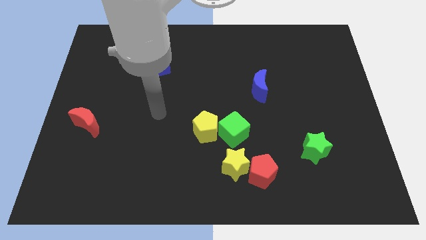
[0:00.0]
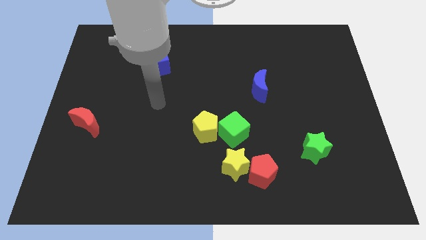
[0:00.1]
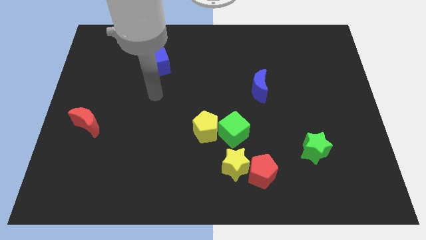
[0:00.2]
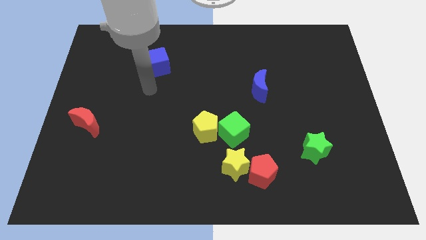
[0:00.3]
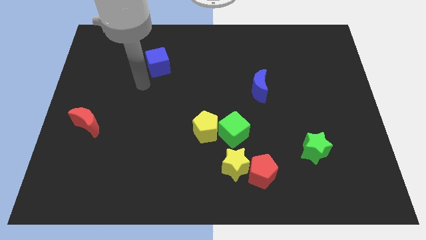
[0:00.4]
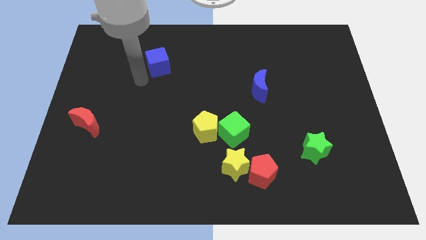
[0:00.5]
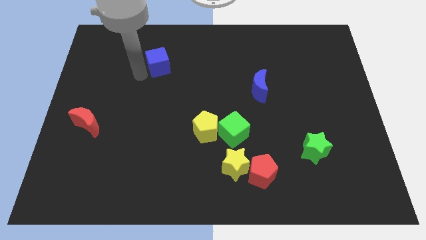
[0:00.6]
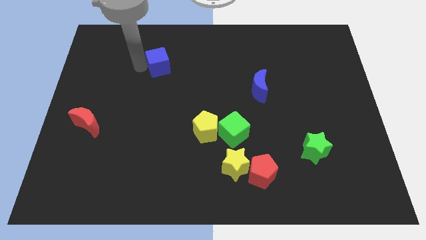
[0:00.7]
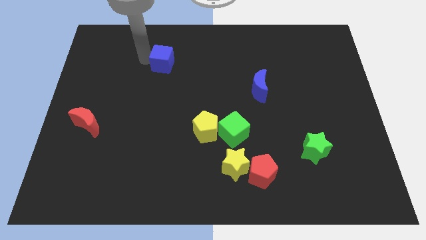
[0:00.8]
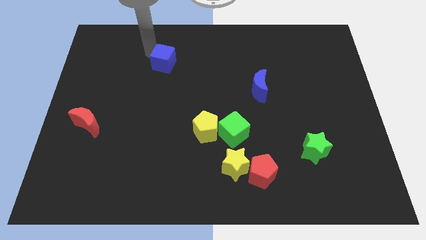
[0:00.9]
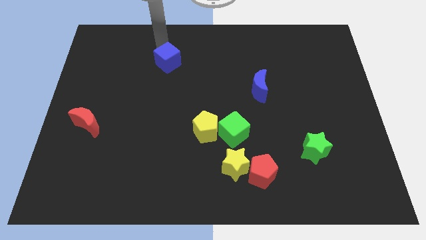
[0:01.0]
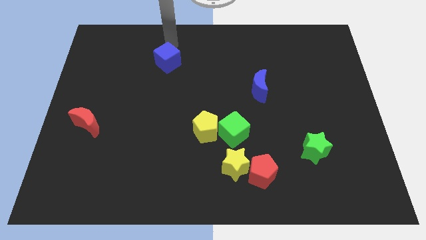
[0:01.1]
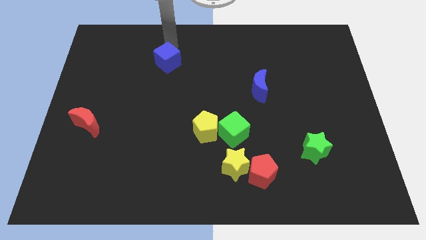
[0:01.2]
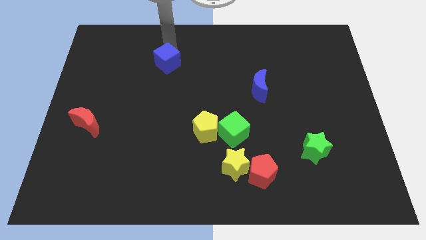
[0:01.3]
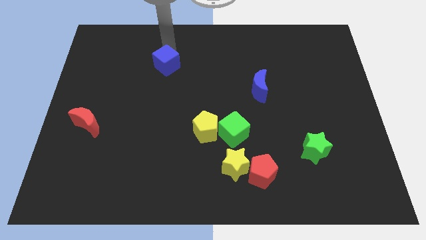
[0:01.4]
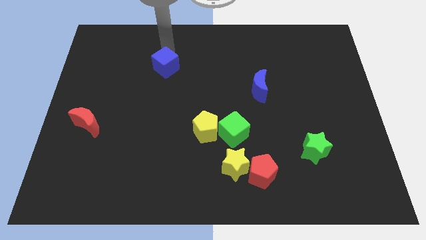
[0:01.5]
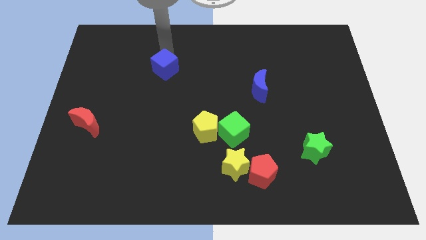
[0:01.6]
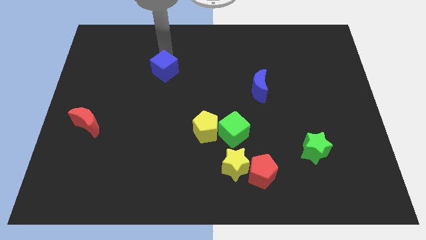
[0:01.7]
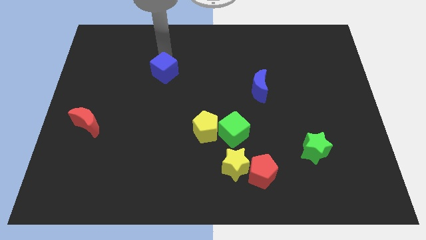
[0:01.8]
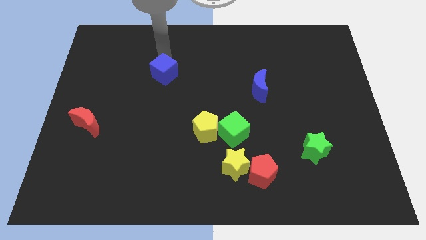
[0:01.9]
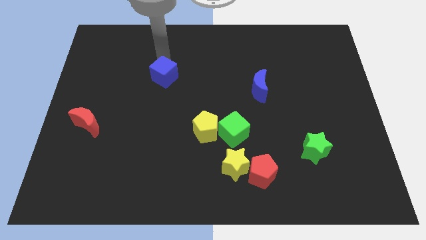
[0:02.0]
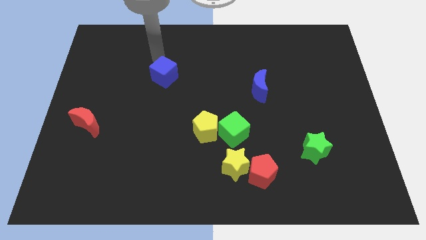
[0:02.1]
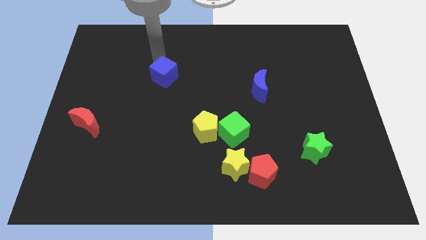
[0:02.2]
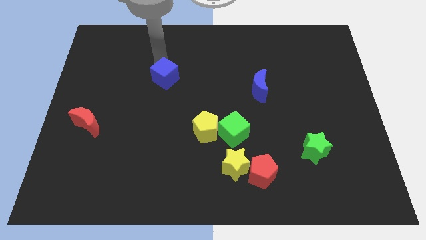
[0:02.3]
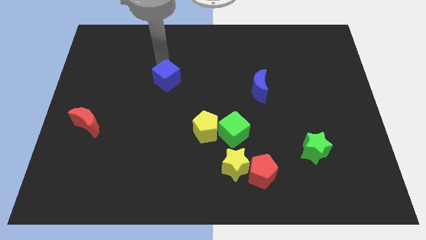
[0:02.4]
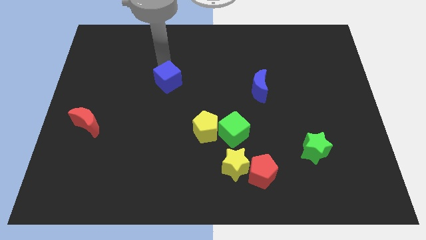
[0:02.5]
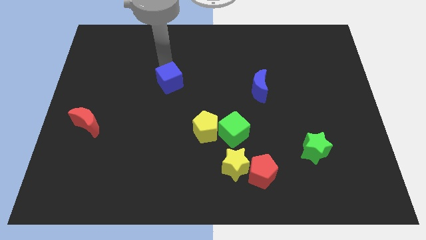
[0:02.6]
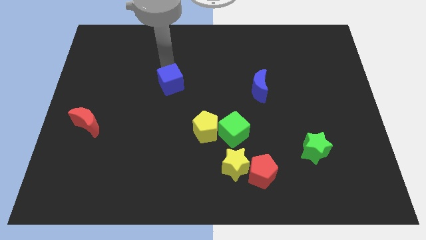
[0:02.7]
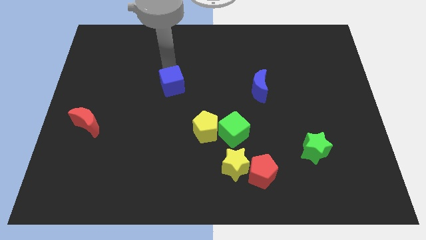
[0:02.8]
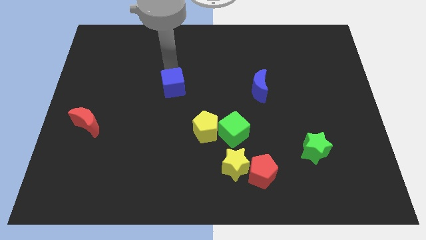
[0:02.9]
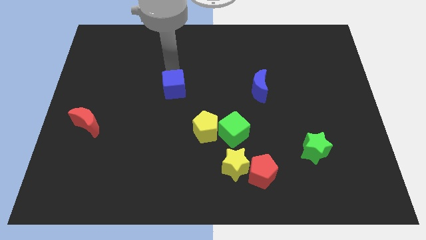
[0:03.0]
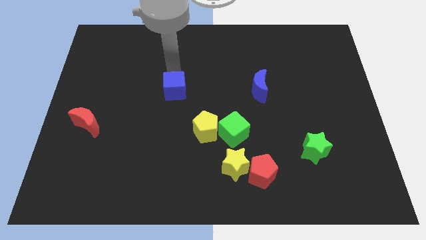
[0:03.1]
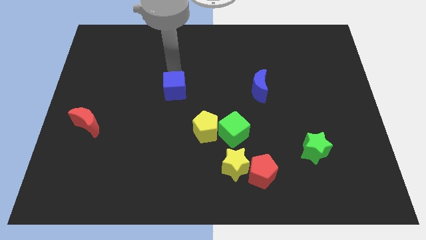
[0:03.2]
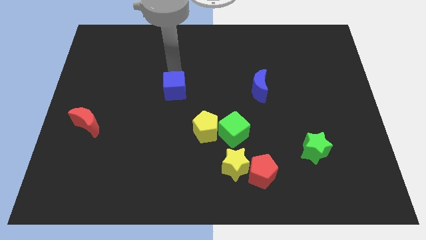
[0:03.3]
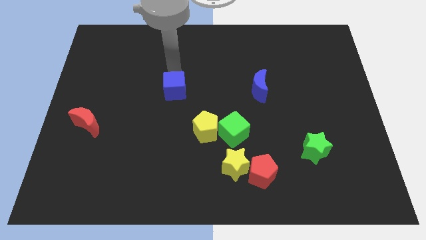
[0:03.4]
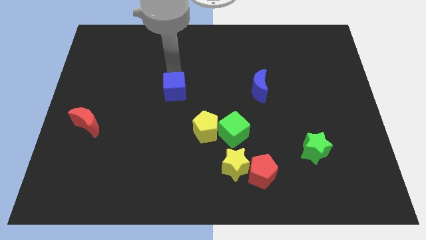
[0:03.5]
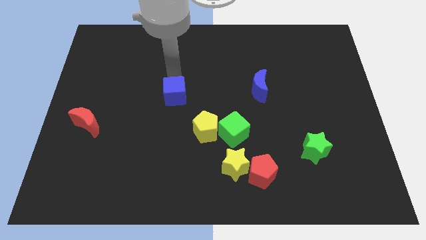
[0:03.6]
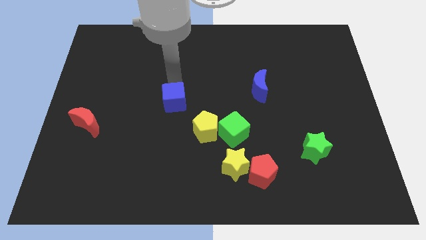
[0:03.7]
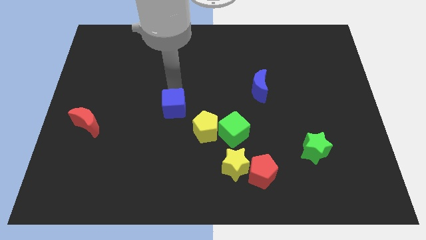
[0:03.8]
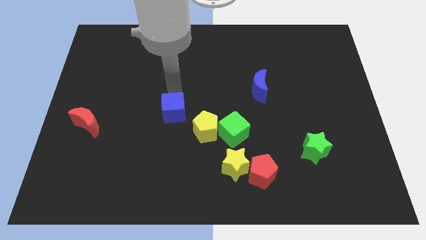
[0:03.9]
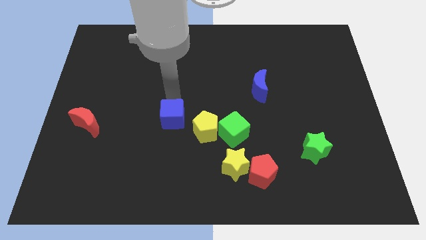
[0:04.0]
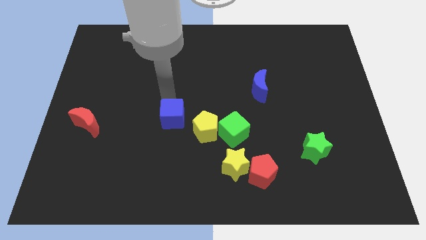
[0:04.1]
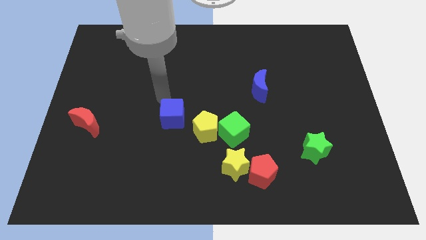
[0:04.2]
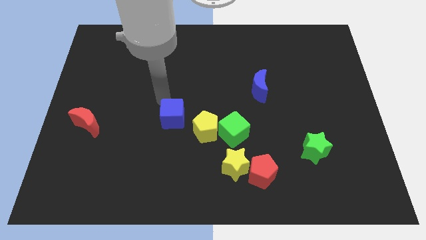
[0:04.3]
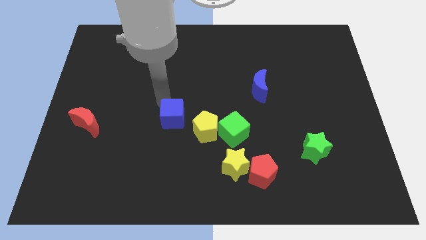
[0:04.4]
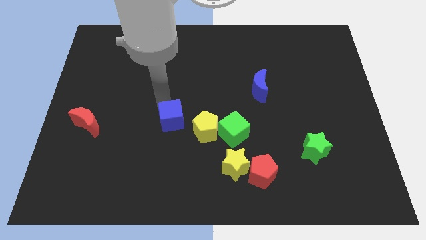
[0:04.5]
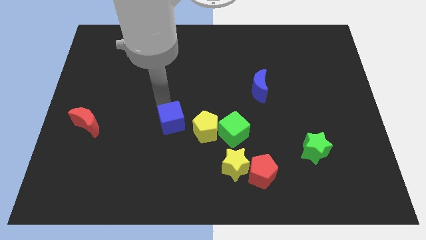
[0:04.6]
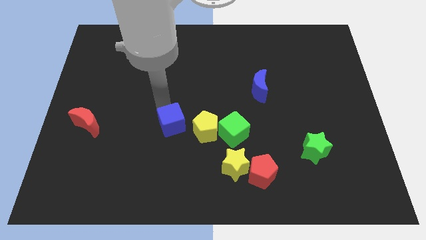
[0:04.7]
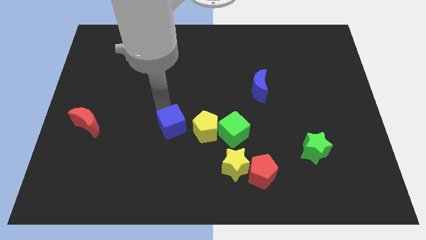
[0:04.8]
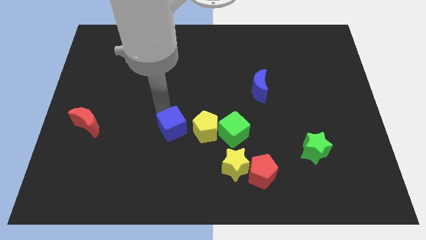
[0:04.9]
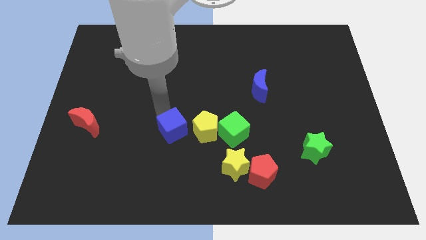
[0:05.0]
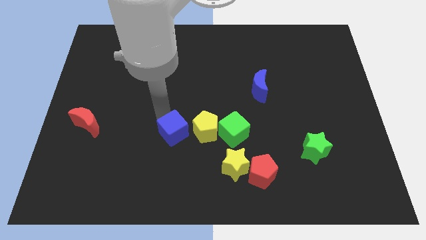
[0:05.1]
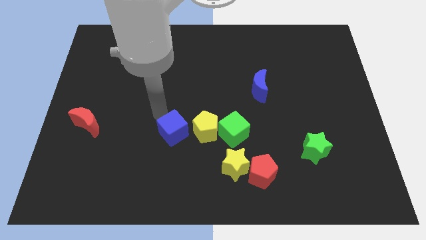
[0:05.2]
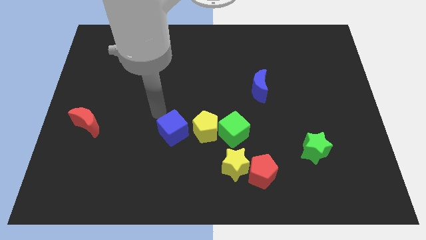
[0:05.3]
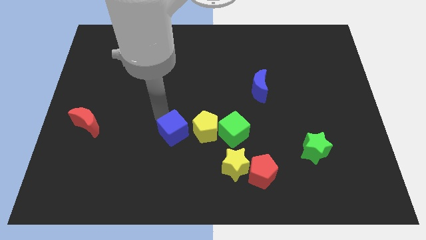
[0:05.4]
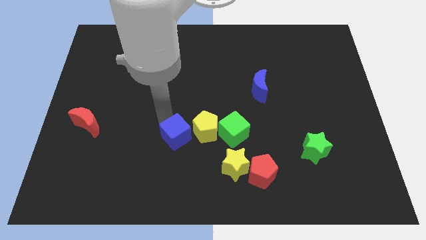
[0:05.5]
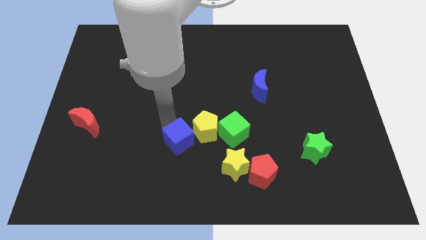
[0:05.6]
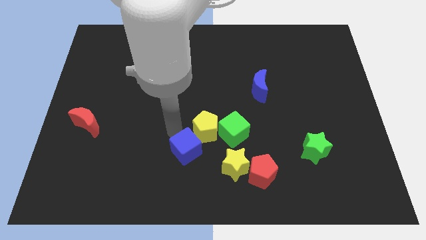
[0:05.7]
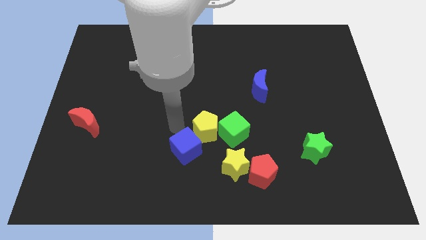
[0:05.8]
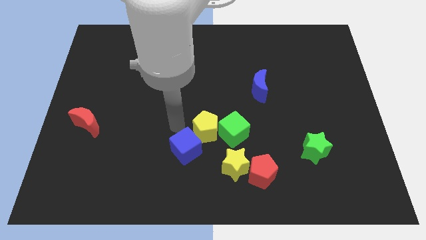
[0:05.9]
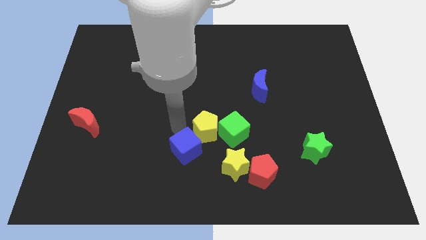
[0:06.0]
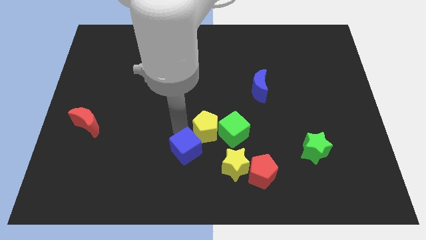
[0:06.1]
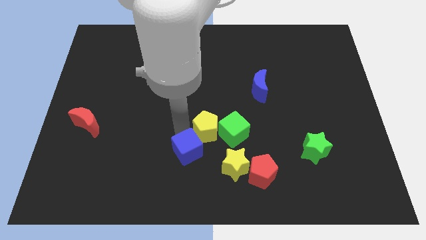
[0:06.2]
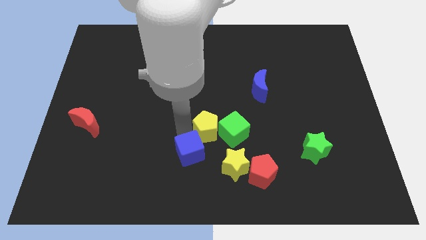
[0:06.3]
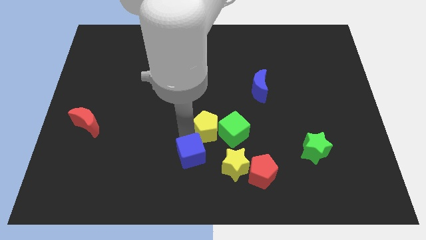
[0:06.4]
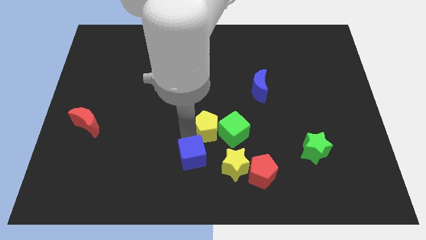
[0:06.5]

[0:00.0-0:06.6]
push the blue cube to the bottom side
